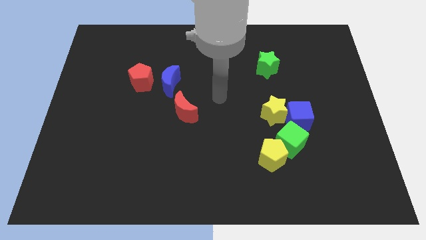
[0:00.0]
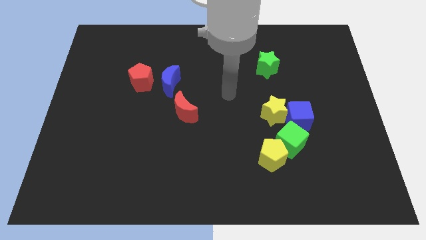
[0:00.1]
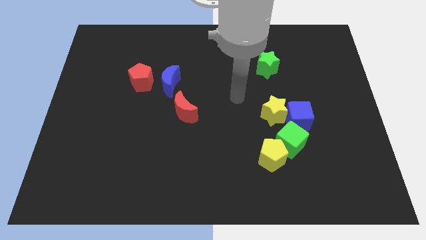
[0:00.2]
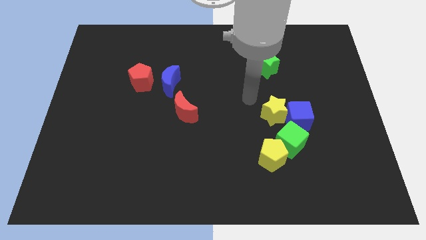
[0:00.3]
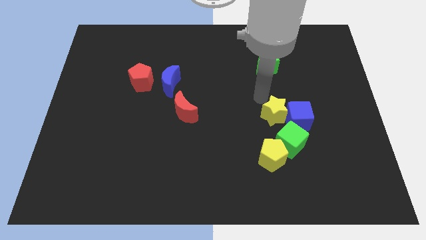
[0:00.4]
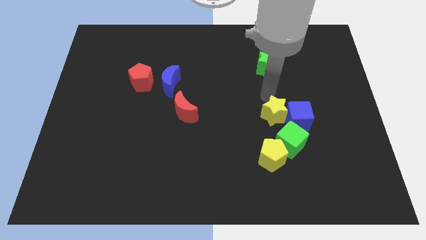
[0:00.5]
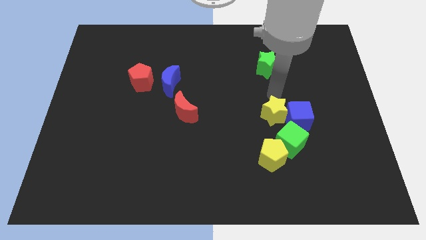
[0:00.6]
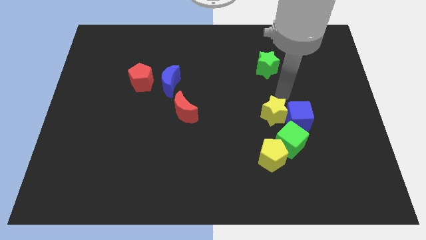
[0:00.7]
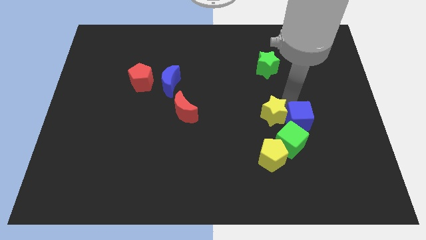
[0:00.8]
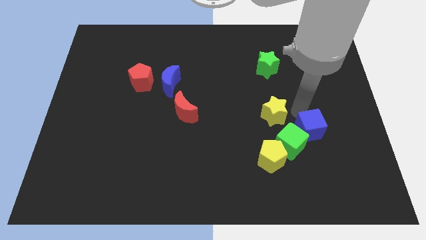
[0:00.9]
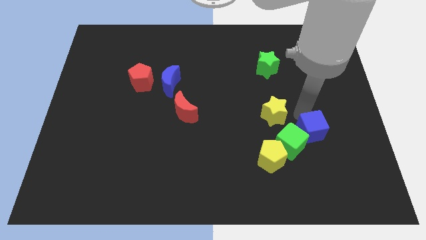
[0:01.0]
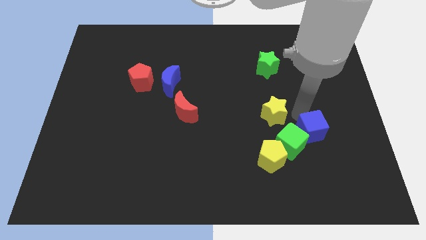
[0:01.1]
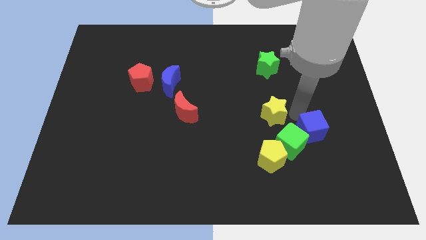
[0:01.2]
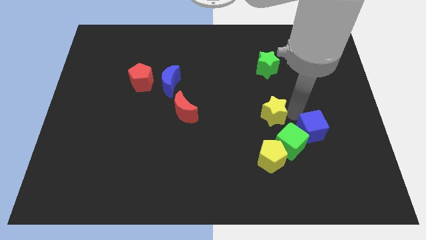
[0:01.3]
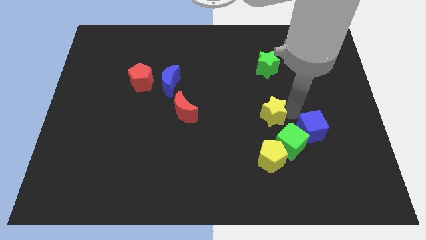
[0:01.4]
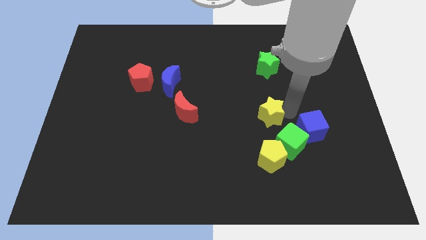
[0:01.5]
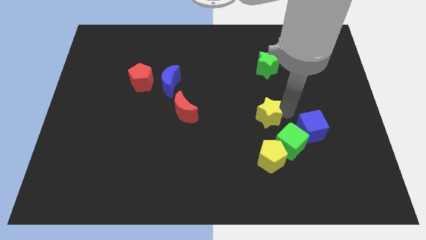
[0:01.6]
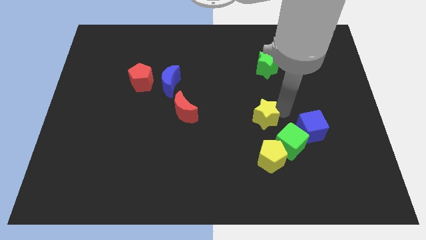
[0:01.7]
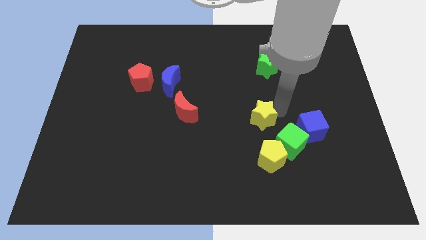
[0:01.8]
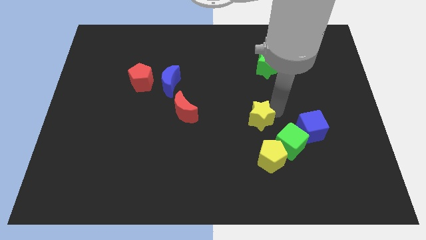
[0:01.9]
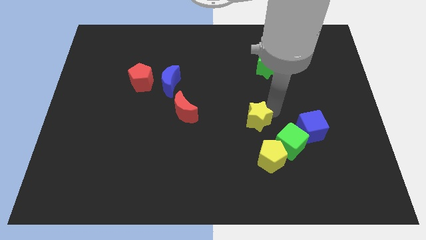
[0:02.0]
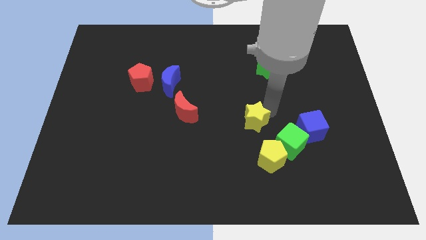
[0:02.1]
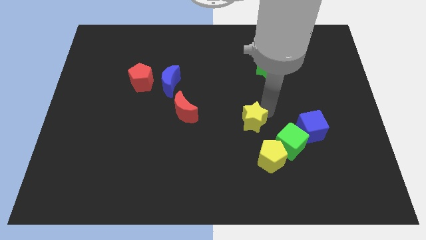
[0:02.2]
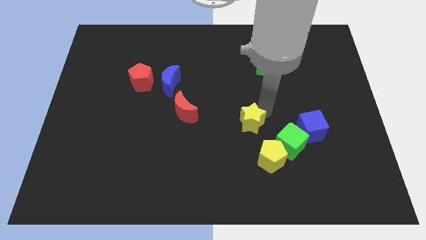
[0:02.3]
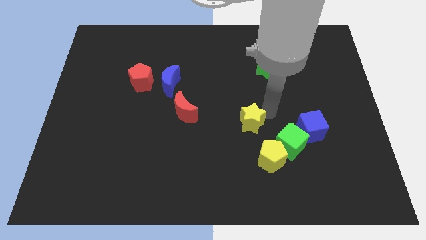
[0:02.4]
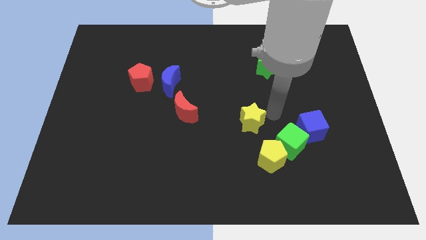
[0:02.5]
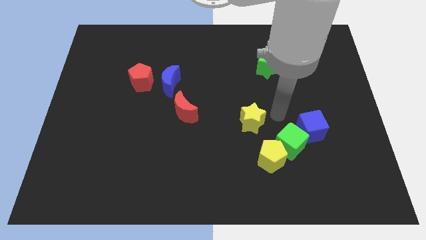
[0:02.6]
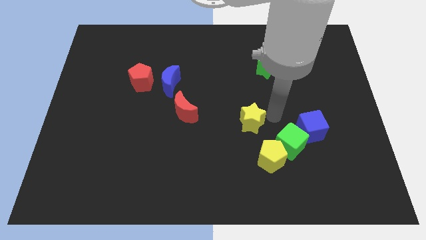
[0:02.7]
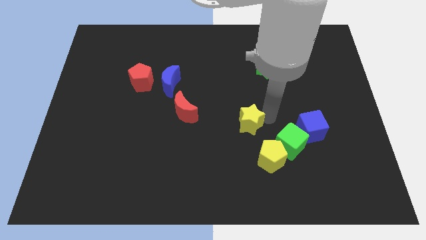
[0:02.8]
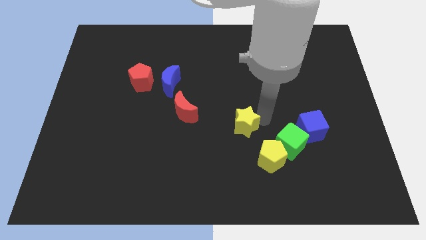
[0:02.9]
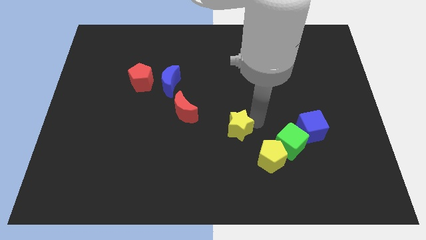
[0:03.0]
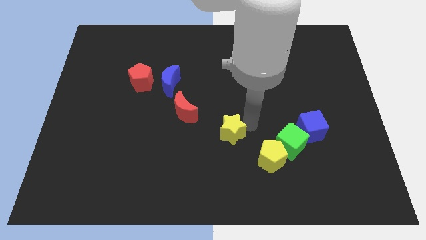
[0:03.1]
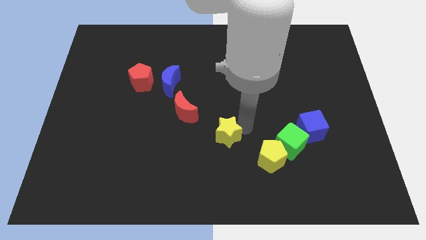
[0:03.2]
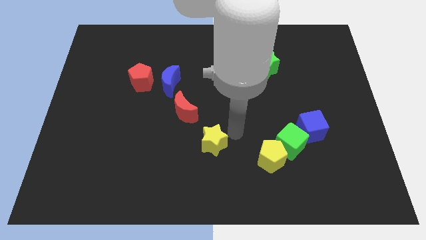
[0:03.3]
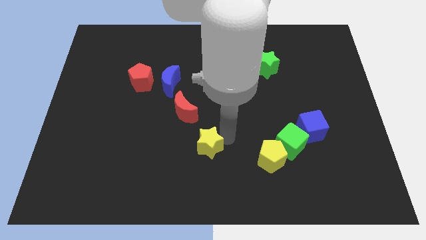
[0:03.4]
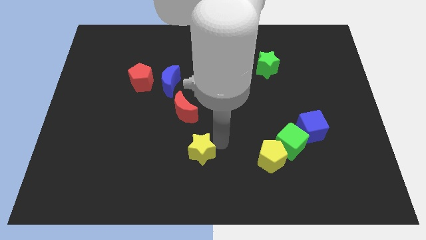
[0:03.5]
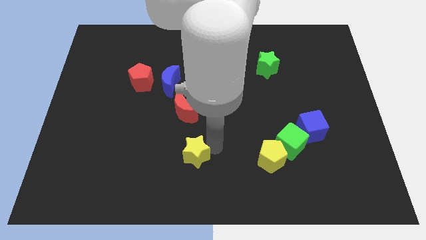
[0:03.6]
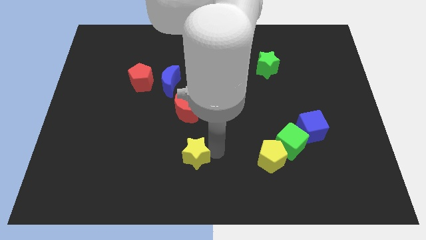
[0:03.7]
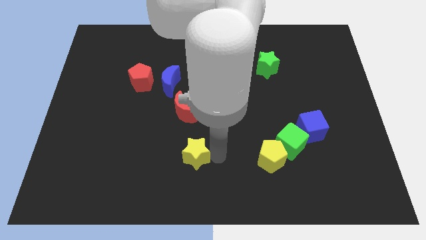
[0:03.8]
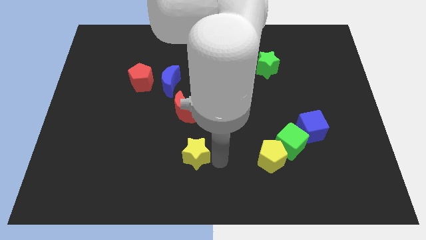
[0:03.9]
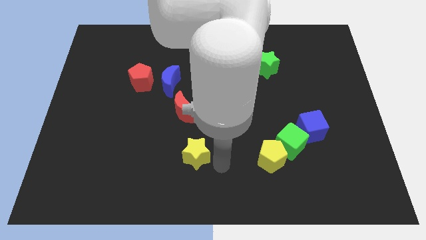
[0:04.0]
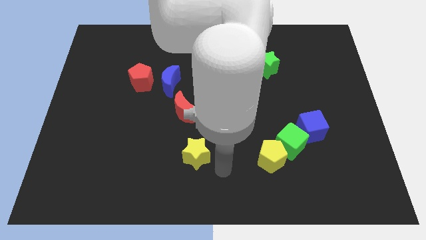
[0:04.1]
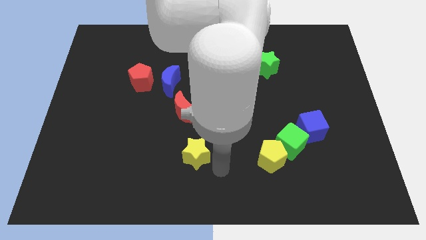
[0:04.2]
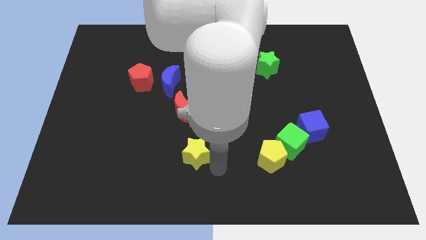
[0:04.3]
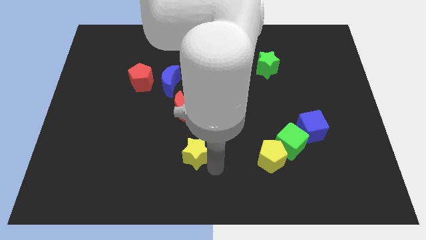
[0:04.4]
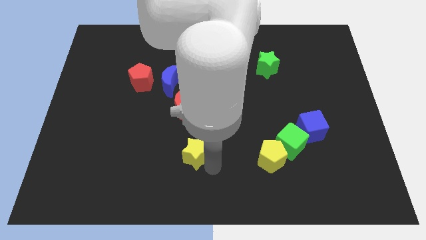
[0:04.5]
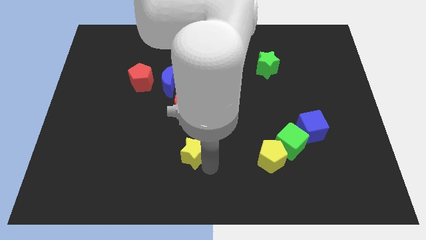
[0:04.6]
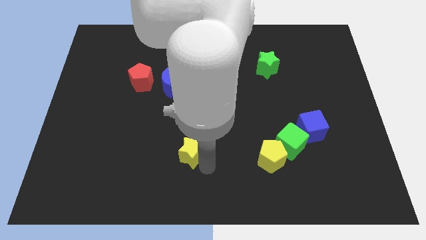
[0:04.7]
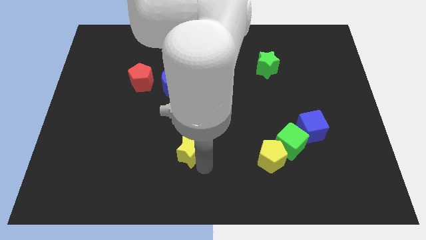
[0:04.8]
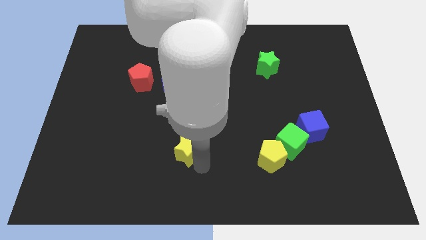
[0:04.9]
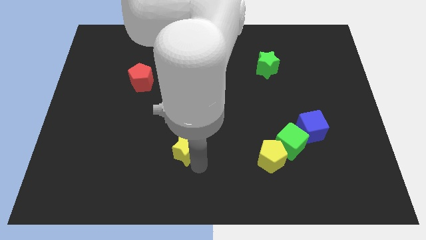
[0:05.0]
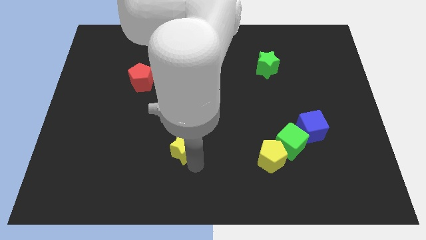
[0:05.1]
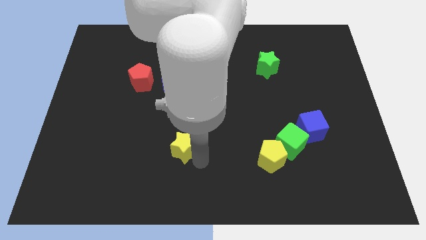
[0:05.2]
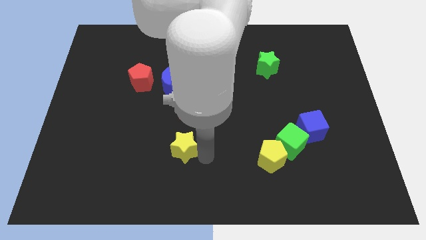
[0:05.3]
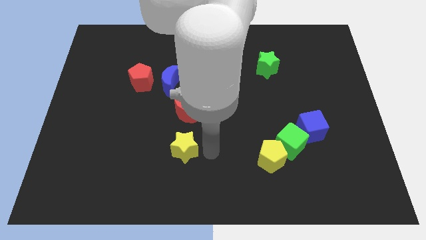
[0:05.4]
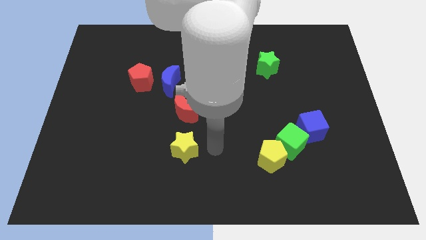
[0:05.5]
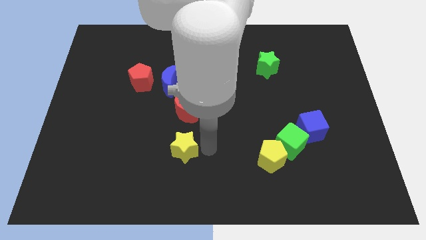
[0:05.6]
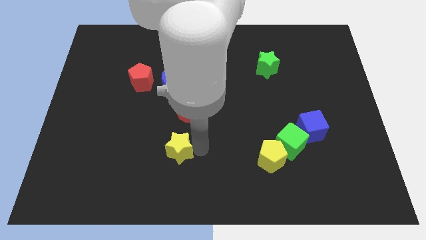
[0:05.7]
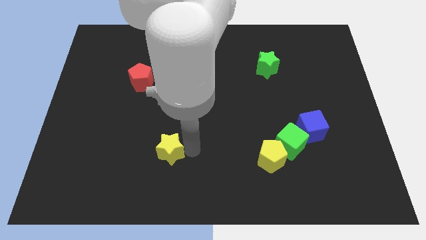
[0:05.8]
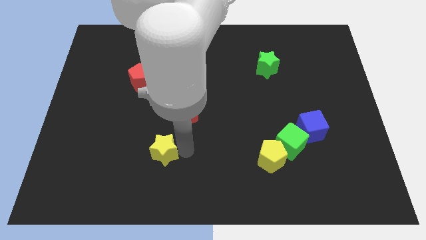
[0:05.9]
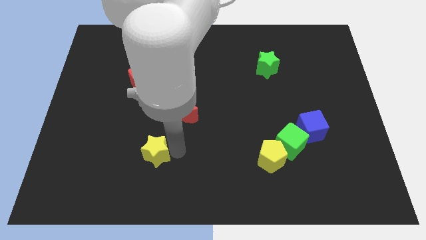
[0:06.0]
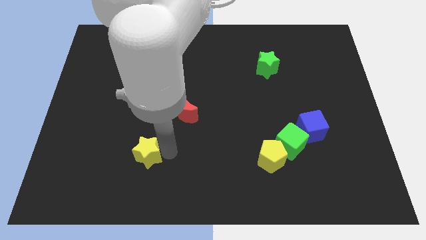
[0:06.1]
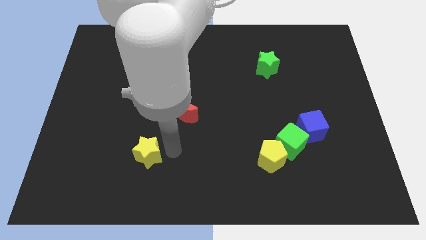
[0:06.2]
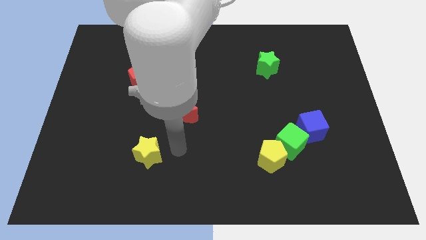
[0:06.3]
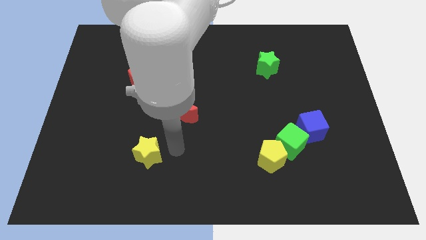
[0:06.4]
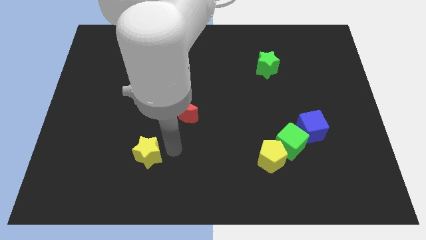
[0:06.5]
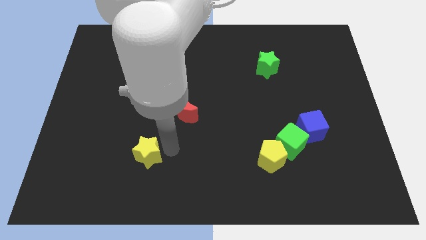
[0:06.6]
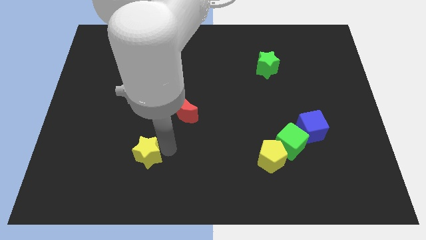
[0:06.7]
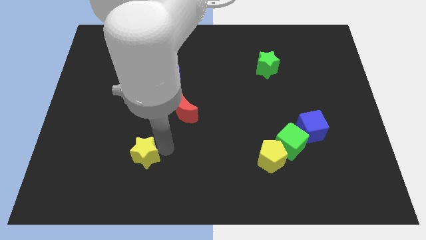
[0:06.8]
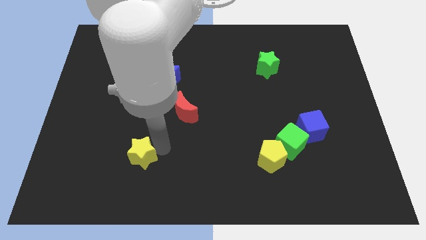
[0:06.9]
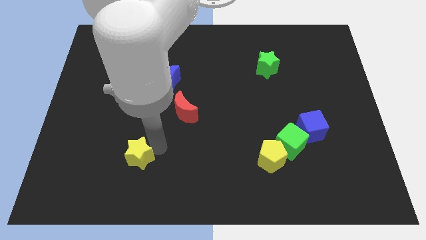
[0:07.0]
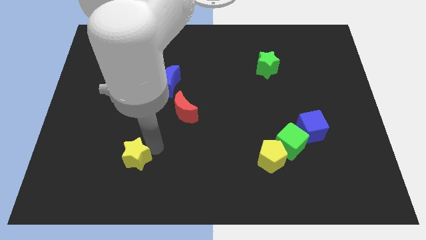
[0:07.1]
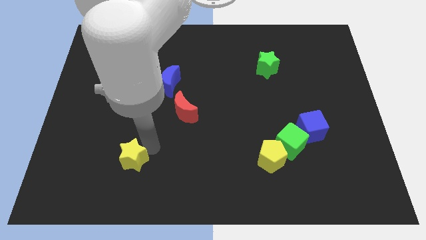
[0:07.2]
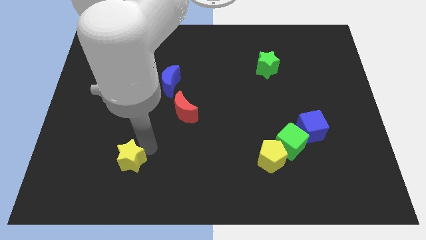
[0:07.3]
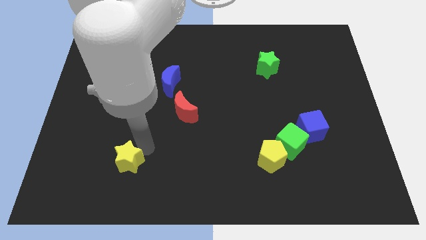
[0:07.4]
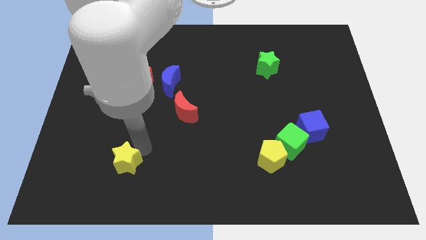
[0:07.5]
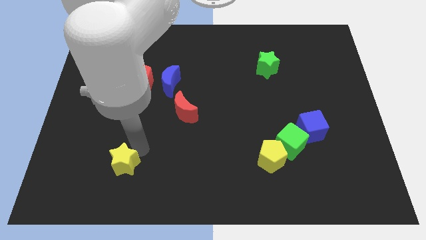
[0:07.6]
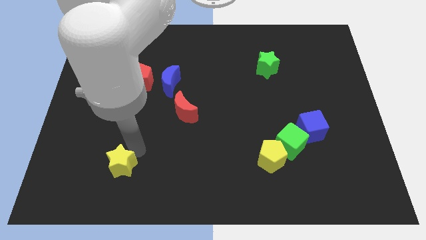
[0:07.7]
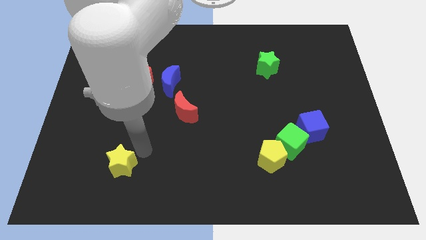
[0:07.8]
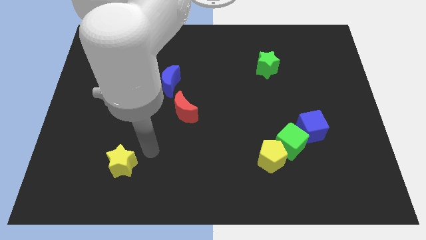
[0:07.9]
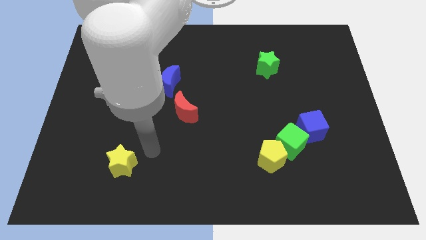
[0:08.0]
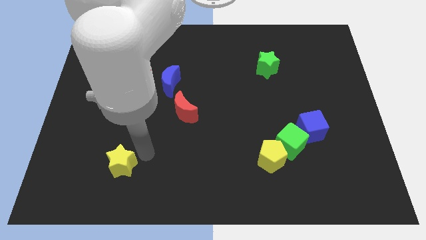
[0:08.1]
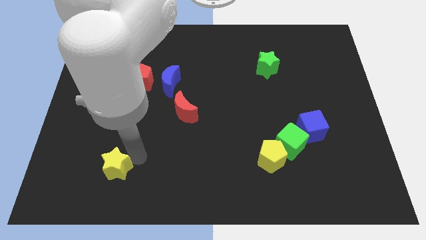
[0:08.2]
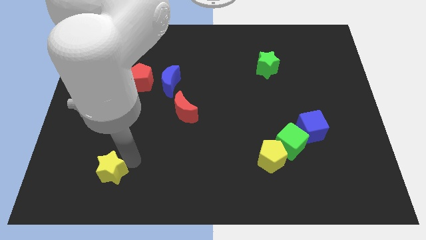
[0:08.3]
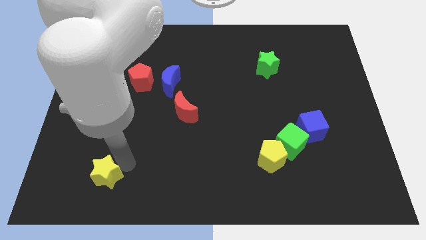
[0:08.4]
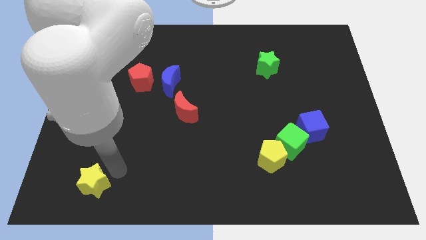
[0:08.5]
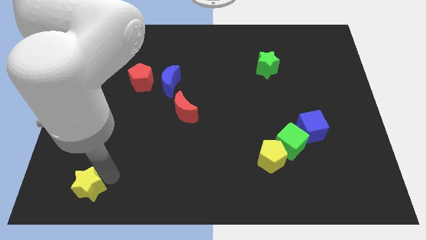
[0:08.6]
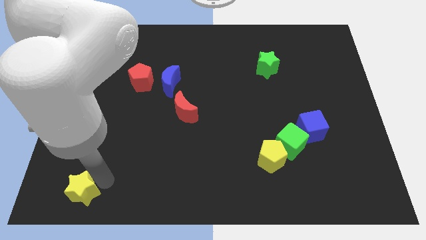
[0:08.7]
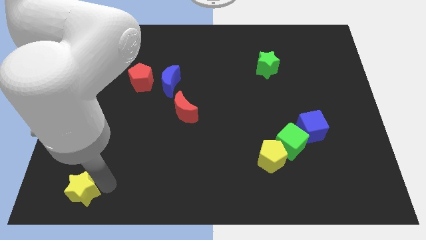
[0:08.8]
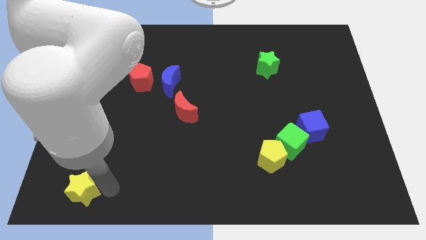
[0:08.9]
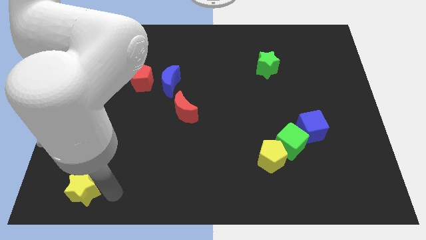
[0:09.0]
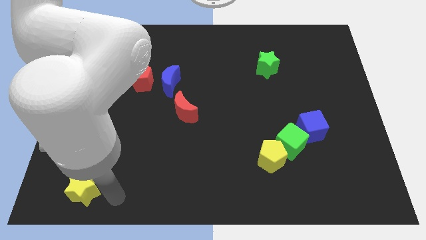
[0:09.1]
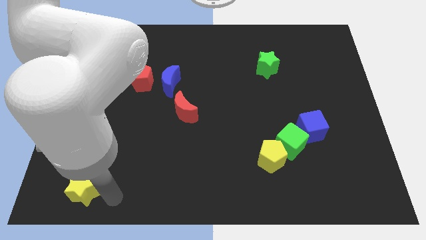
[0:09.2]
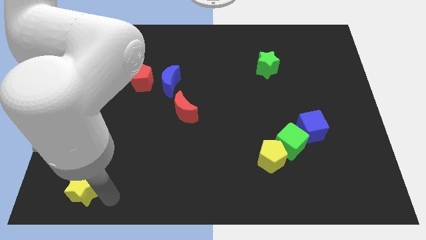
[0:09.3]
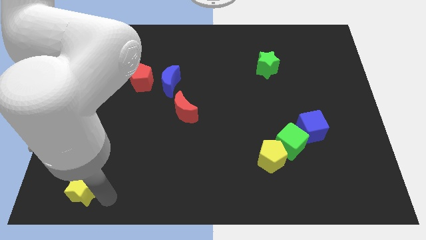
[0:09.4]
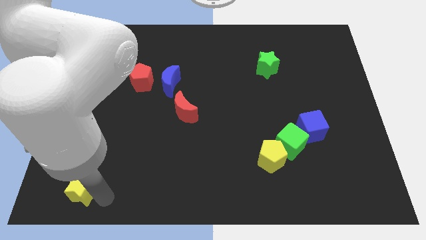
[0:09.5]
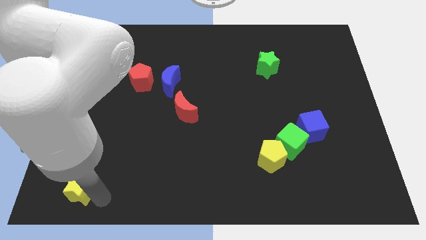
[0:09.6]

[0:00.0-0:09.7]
push the yellow star to the bottom left of the board
